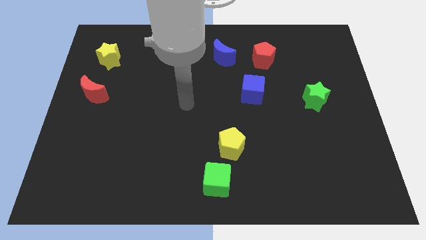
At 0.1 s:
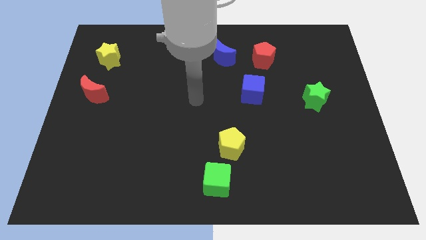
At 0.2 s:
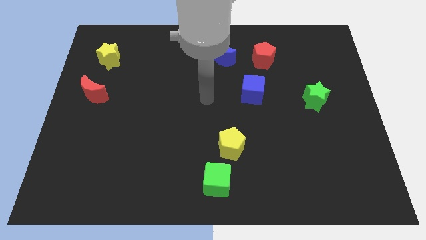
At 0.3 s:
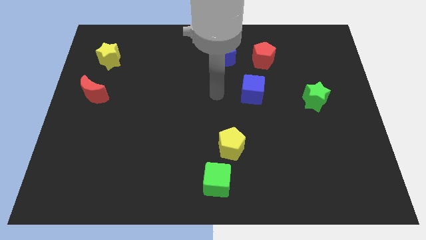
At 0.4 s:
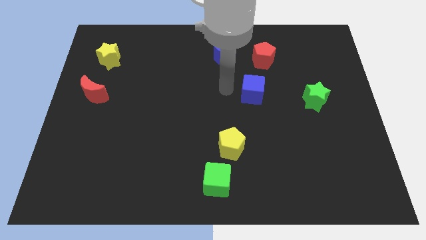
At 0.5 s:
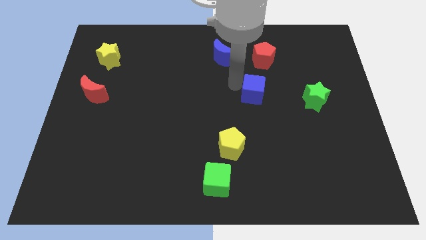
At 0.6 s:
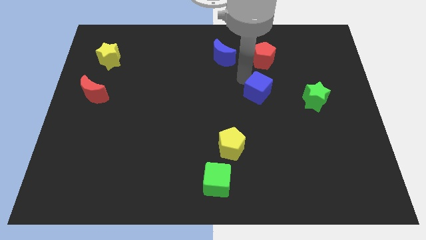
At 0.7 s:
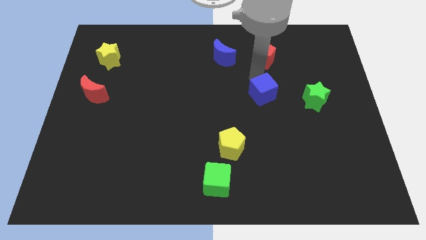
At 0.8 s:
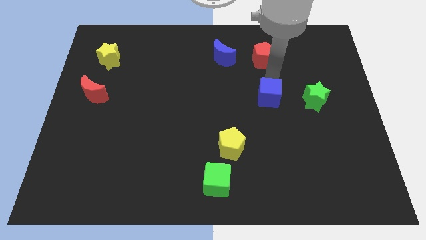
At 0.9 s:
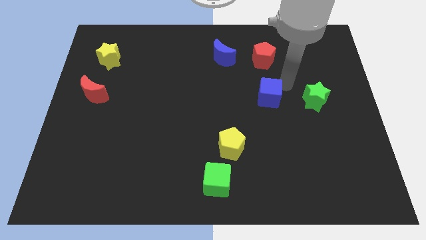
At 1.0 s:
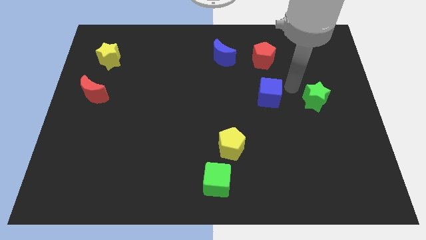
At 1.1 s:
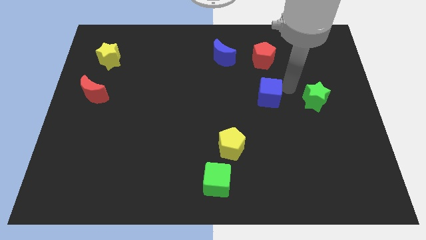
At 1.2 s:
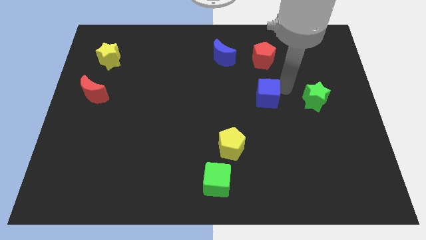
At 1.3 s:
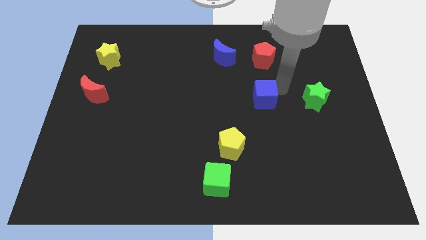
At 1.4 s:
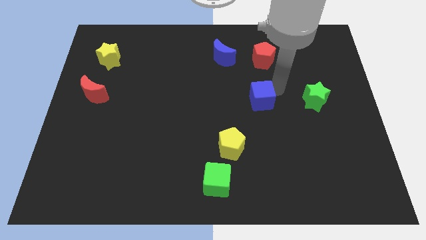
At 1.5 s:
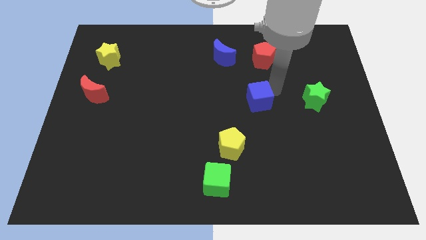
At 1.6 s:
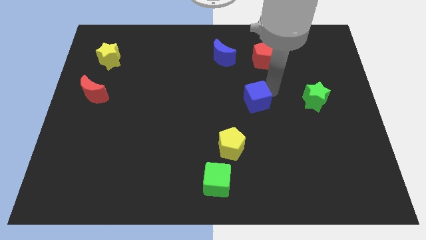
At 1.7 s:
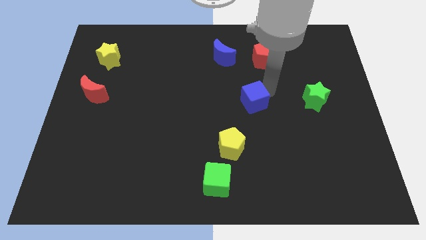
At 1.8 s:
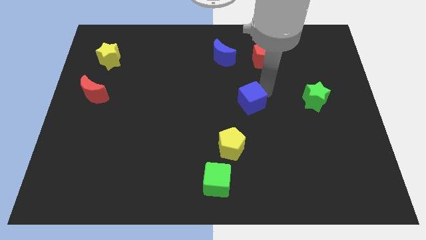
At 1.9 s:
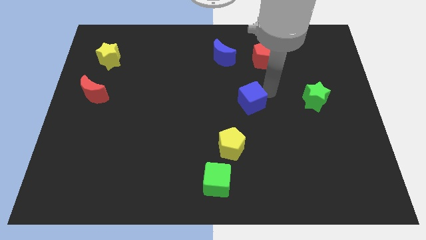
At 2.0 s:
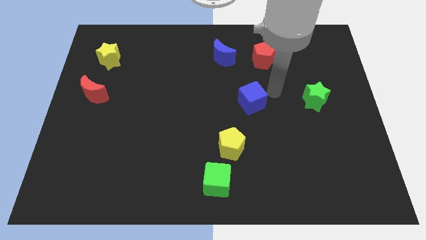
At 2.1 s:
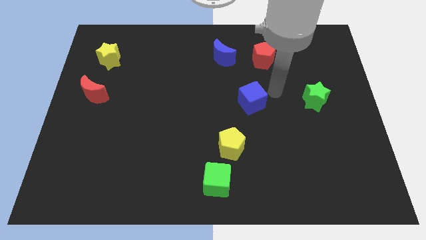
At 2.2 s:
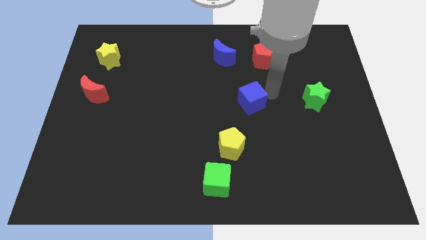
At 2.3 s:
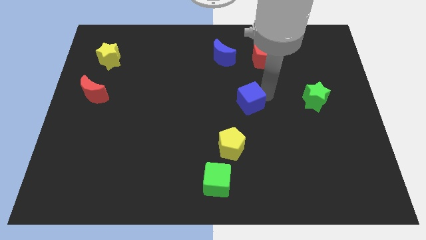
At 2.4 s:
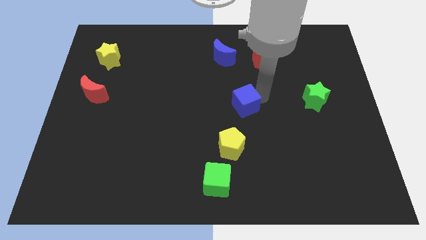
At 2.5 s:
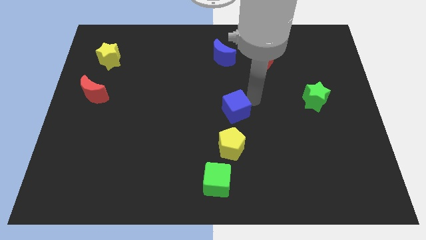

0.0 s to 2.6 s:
move the blue cube down and to the left diagonally a little

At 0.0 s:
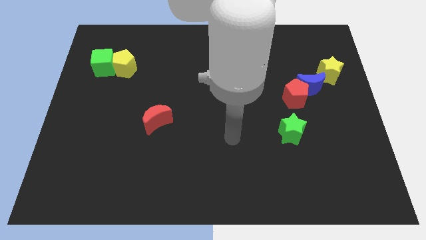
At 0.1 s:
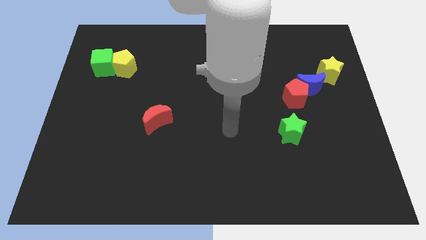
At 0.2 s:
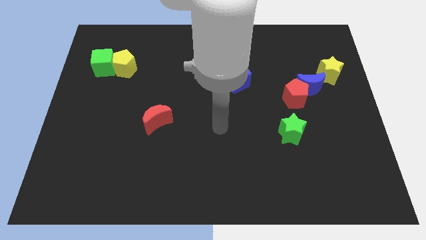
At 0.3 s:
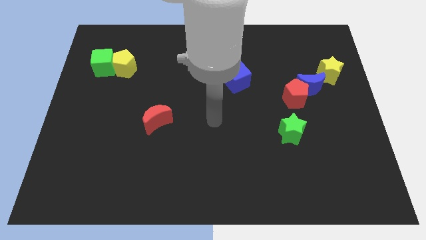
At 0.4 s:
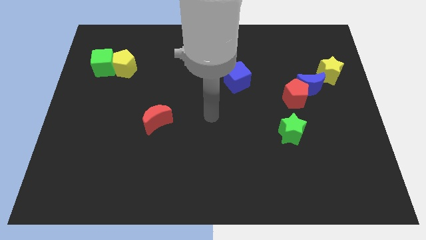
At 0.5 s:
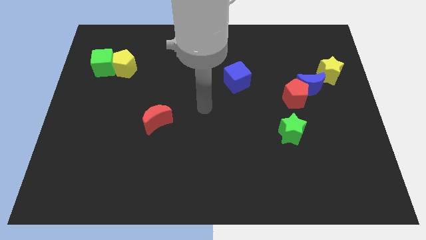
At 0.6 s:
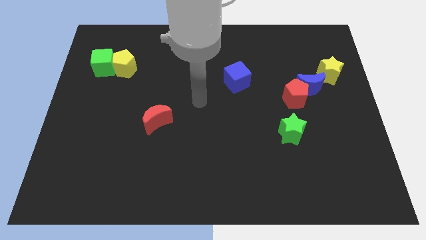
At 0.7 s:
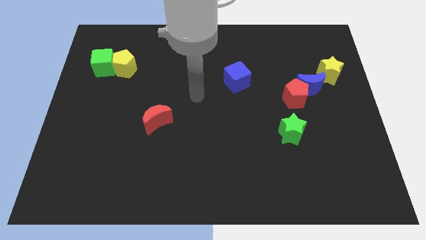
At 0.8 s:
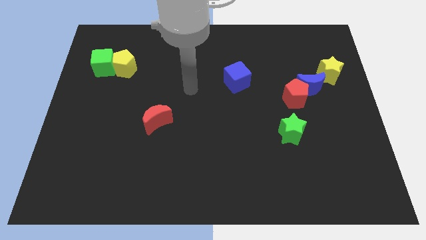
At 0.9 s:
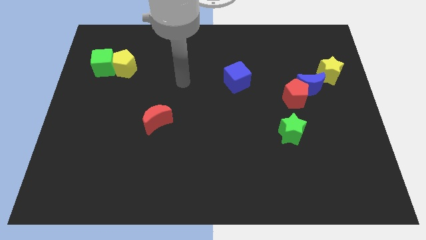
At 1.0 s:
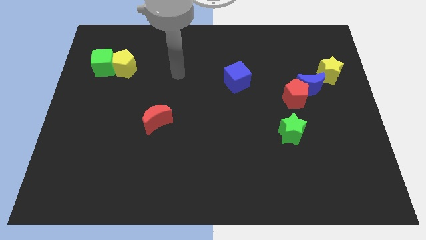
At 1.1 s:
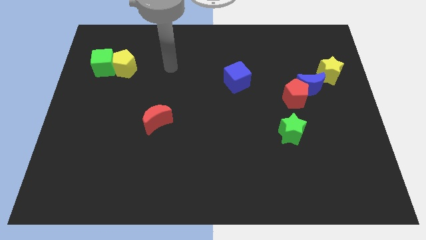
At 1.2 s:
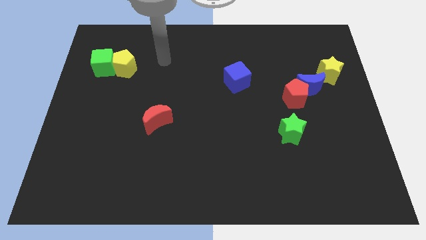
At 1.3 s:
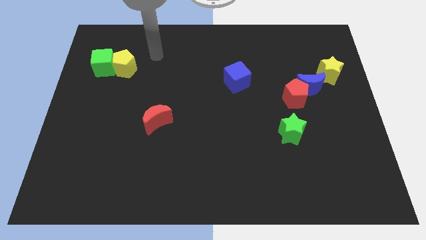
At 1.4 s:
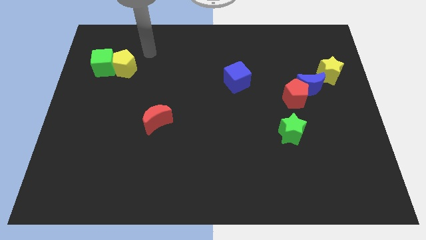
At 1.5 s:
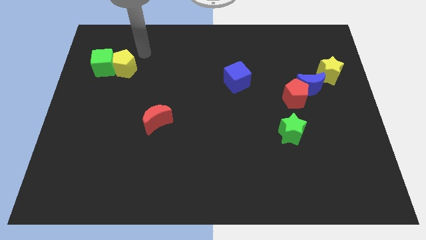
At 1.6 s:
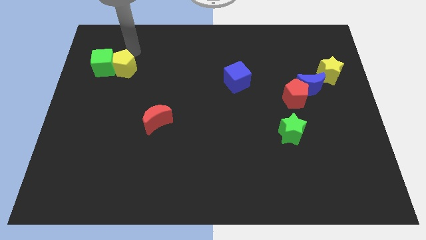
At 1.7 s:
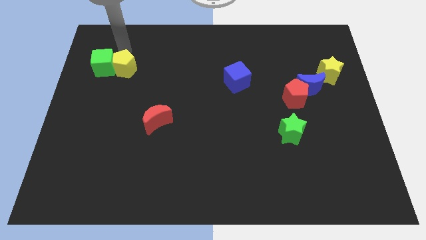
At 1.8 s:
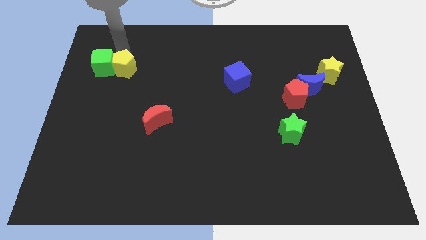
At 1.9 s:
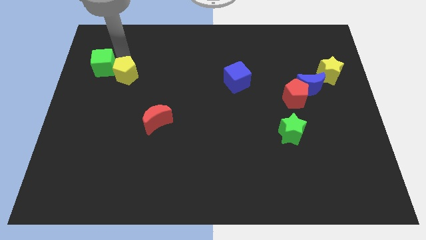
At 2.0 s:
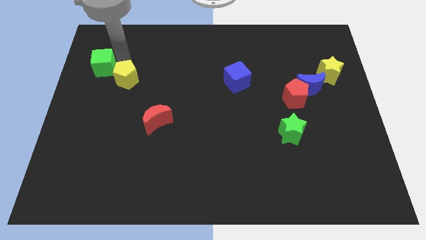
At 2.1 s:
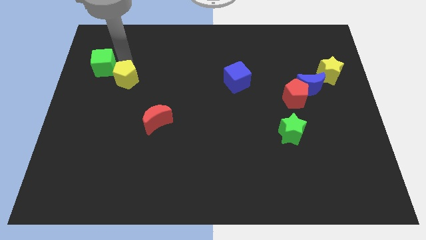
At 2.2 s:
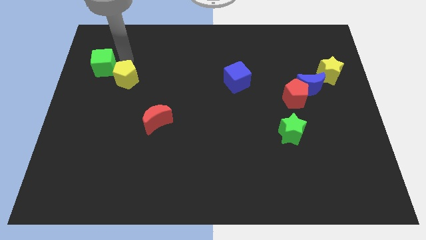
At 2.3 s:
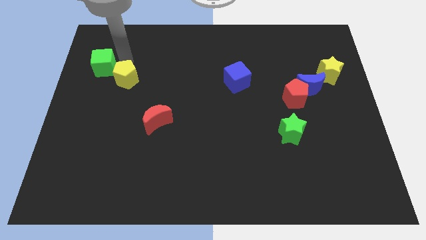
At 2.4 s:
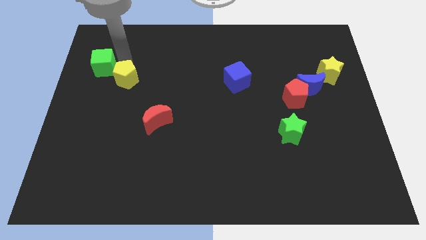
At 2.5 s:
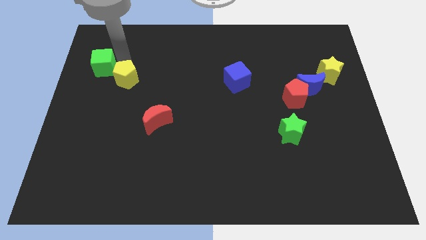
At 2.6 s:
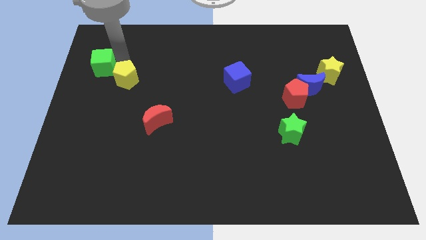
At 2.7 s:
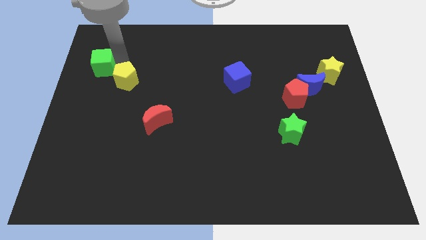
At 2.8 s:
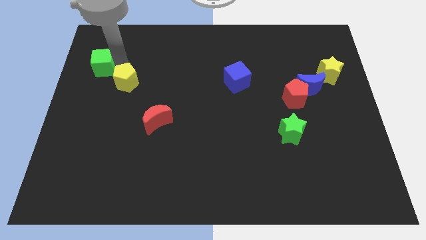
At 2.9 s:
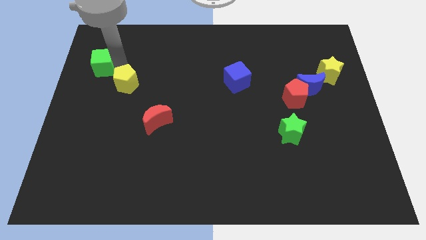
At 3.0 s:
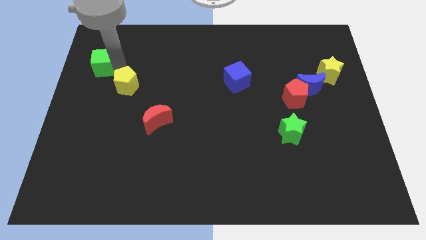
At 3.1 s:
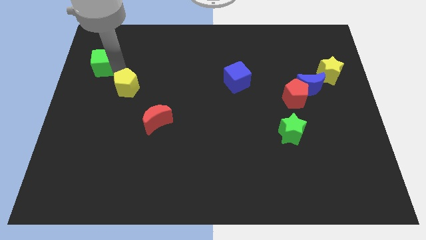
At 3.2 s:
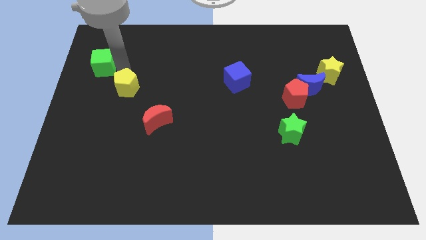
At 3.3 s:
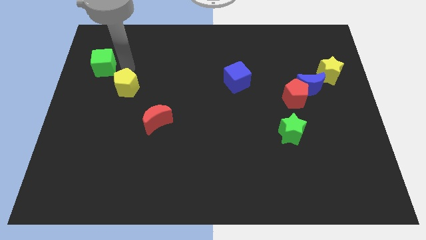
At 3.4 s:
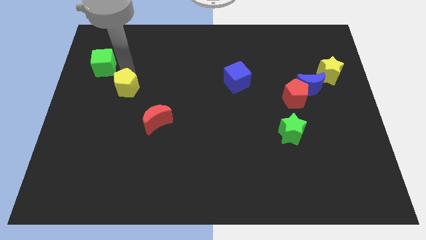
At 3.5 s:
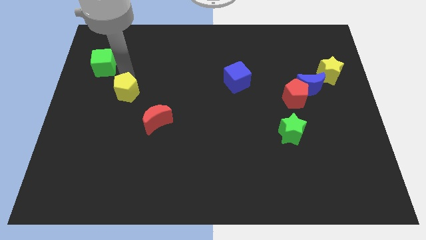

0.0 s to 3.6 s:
push the yellow pentagon downwards a bit

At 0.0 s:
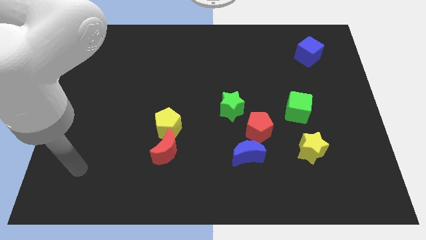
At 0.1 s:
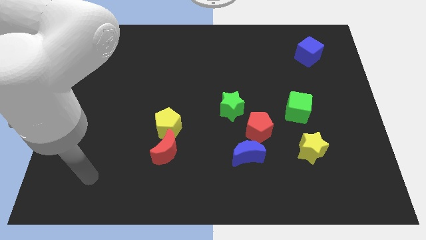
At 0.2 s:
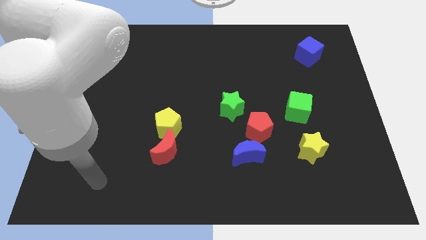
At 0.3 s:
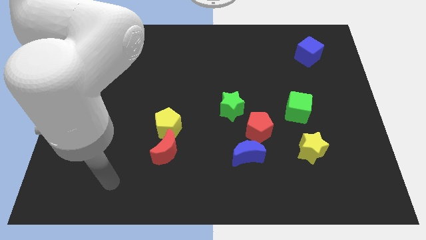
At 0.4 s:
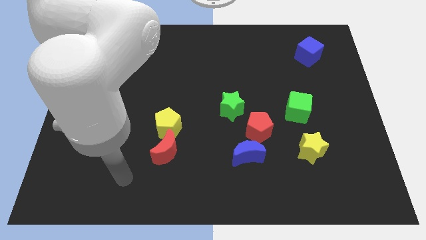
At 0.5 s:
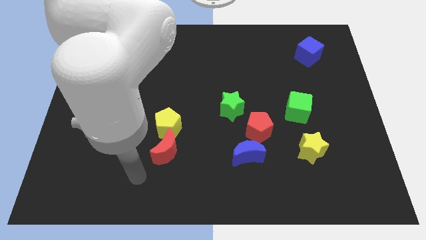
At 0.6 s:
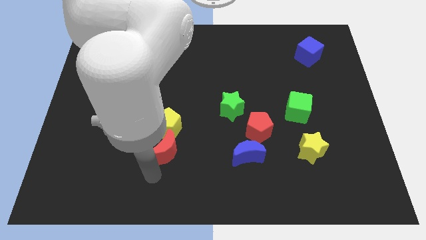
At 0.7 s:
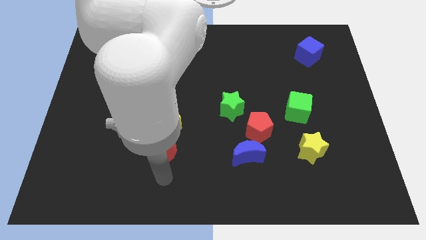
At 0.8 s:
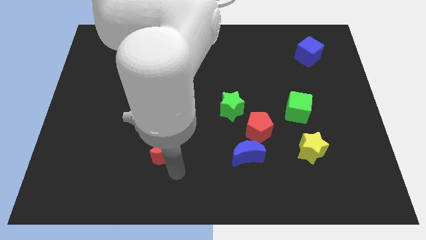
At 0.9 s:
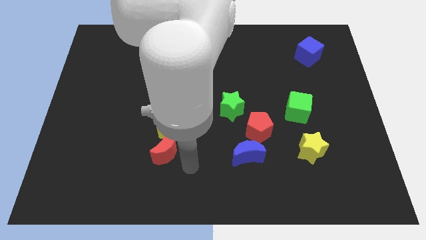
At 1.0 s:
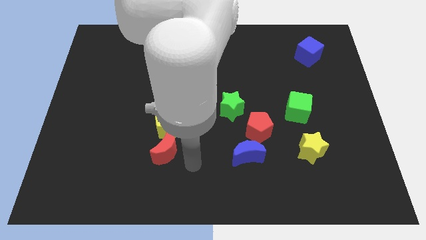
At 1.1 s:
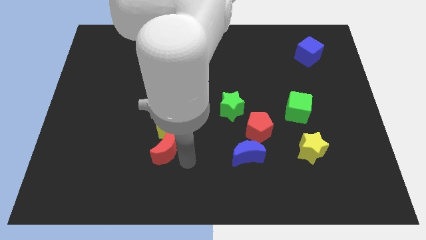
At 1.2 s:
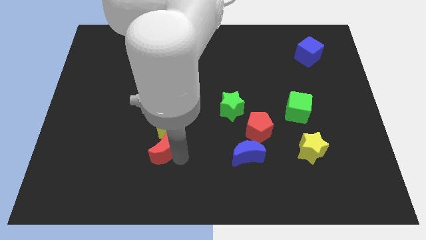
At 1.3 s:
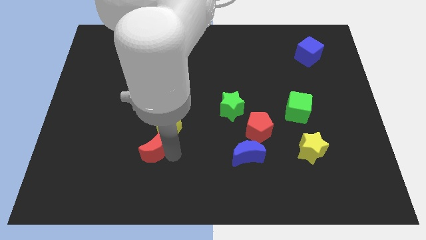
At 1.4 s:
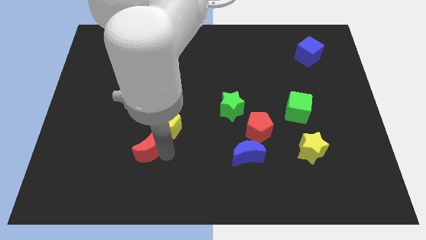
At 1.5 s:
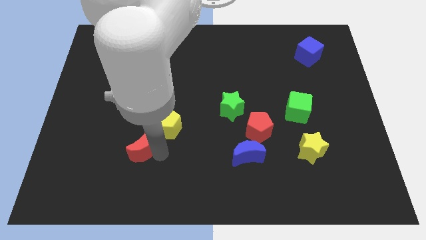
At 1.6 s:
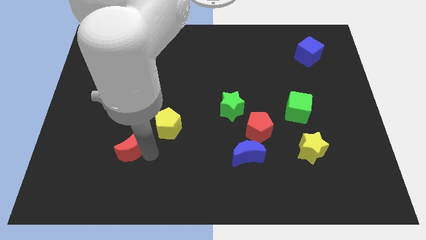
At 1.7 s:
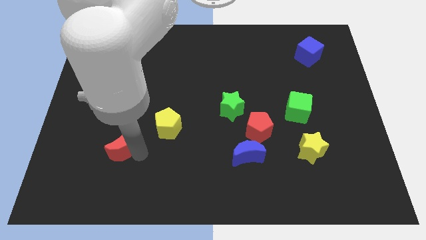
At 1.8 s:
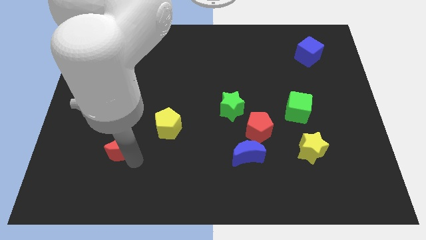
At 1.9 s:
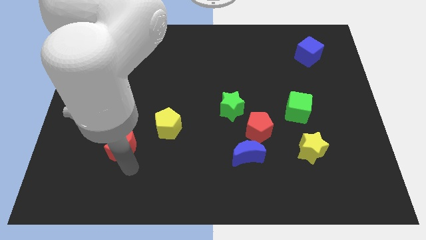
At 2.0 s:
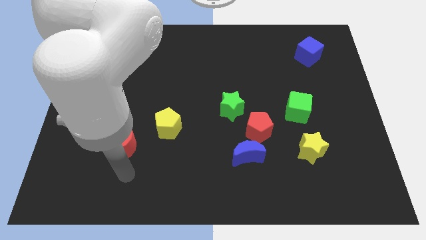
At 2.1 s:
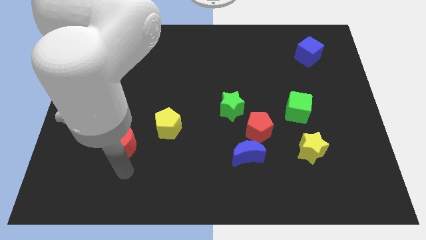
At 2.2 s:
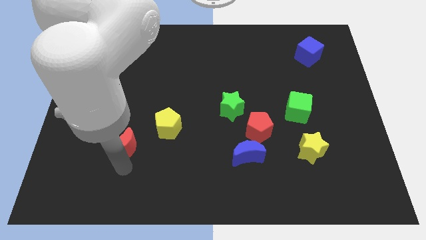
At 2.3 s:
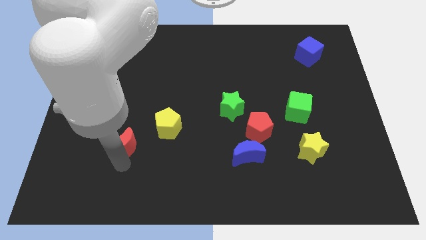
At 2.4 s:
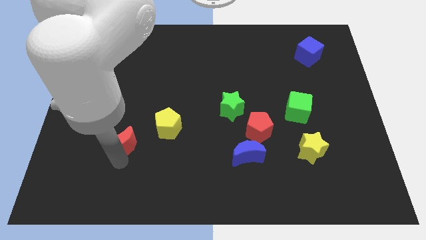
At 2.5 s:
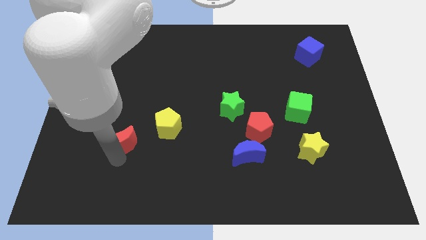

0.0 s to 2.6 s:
move the red moon slightly upwards and then to the left
